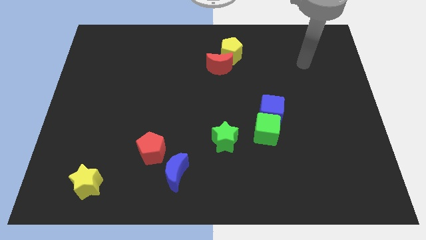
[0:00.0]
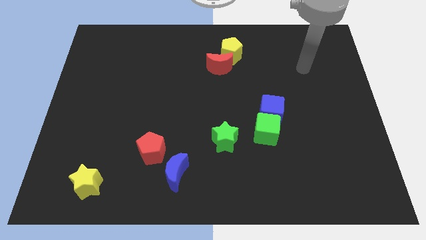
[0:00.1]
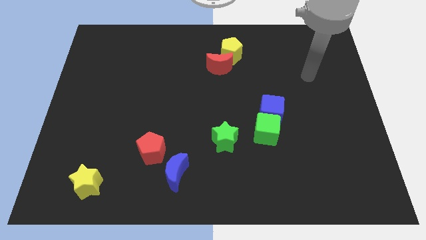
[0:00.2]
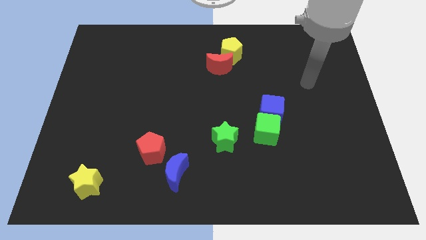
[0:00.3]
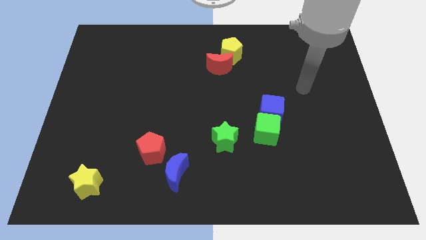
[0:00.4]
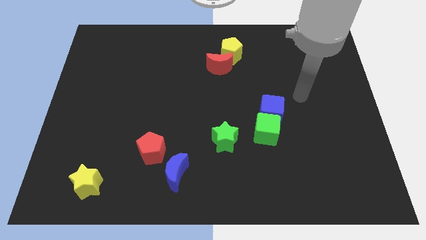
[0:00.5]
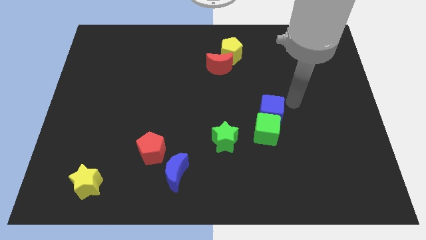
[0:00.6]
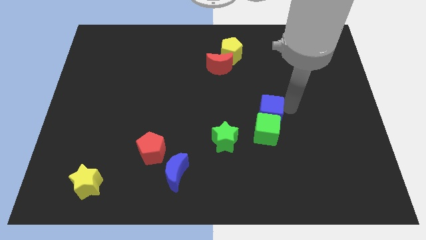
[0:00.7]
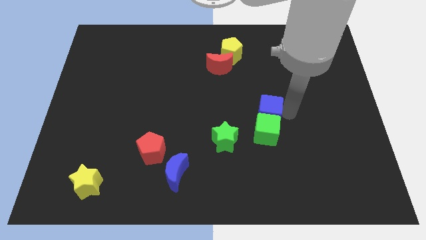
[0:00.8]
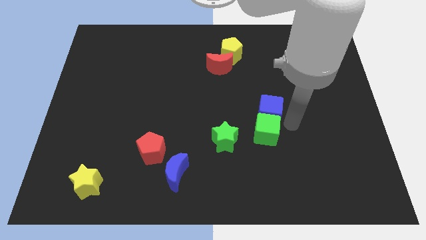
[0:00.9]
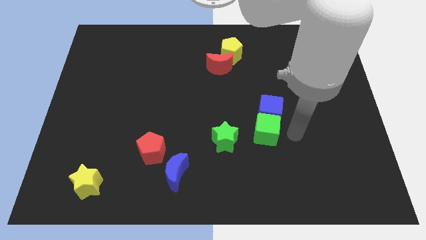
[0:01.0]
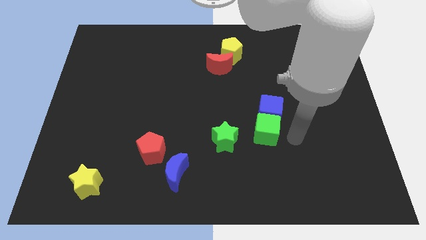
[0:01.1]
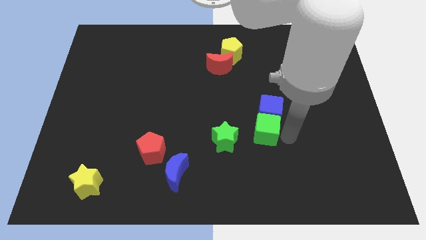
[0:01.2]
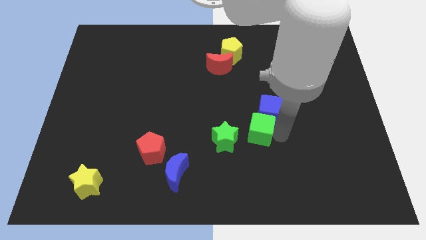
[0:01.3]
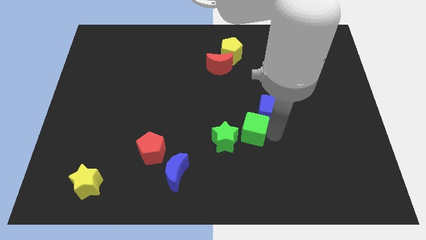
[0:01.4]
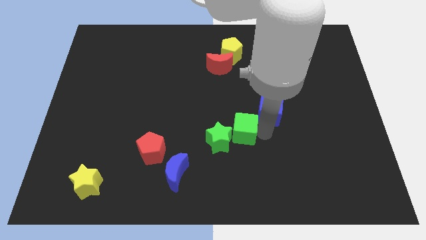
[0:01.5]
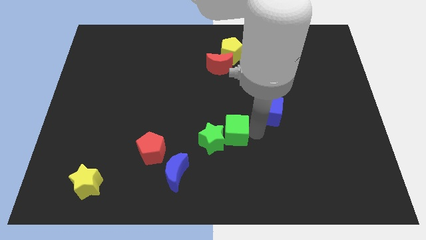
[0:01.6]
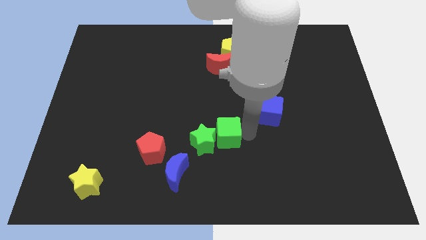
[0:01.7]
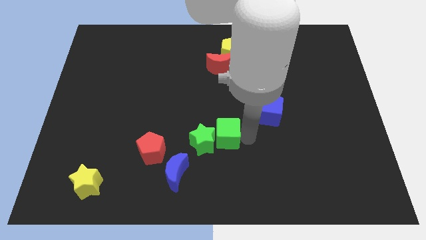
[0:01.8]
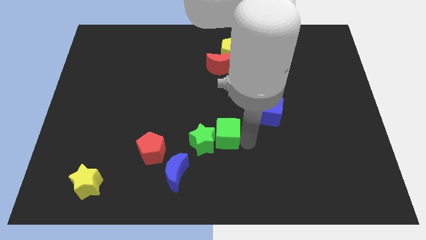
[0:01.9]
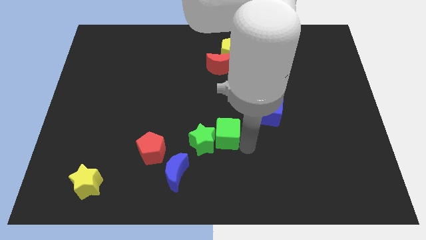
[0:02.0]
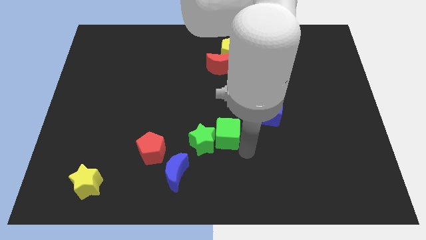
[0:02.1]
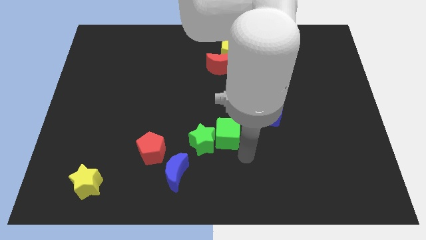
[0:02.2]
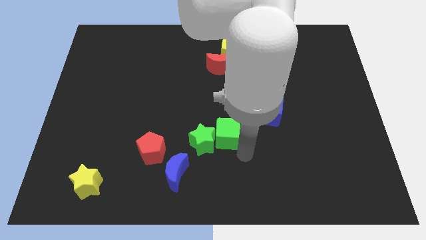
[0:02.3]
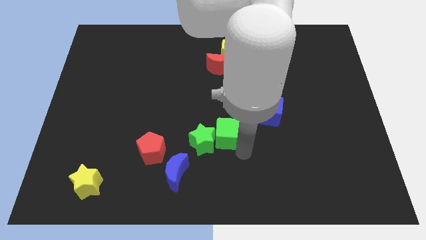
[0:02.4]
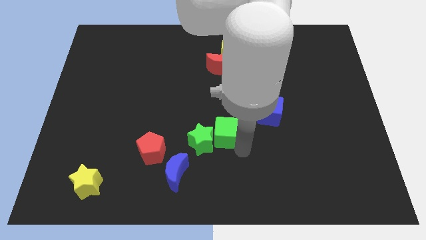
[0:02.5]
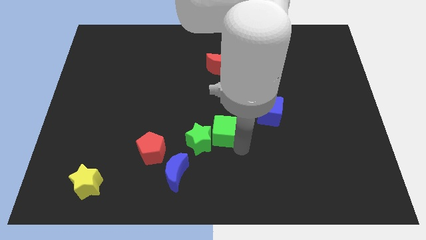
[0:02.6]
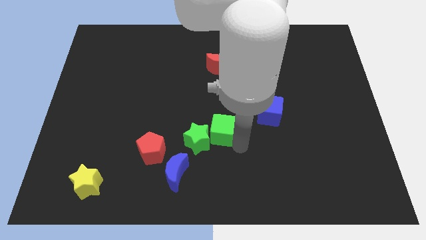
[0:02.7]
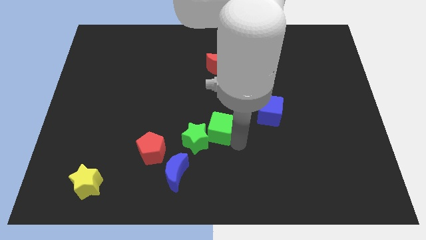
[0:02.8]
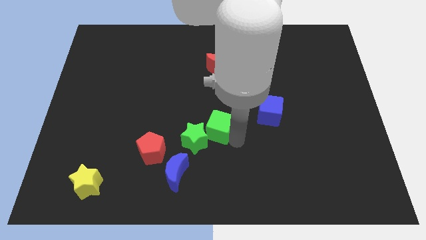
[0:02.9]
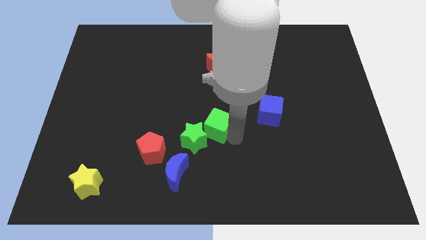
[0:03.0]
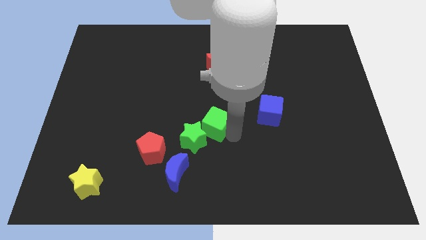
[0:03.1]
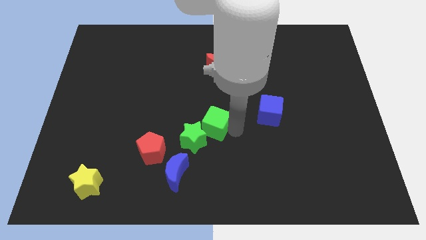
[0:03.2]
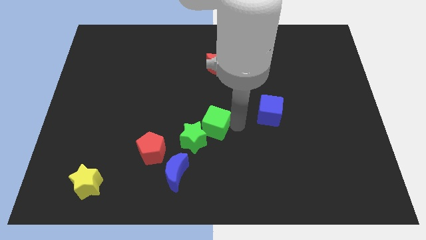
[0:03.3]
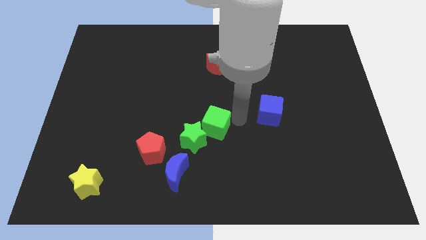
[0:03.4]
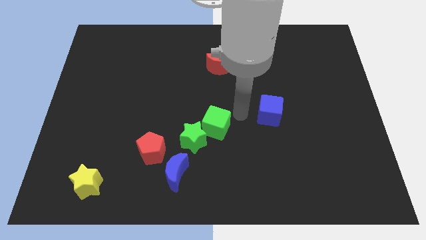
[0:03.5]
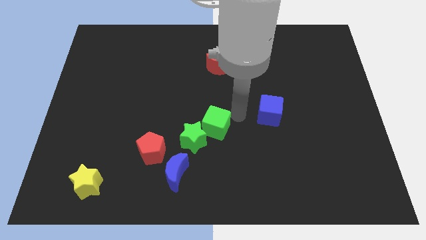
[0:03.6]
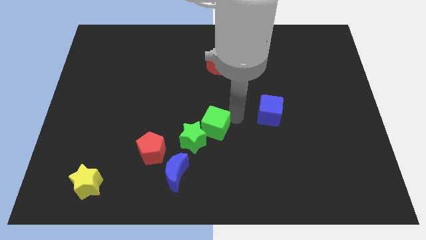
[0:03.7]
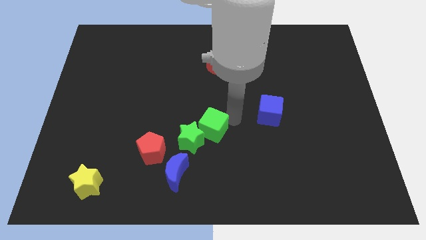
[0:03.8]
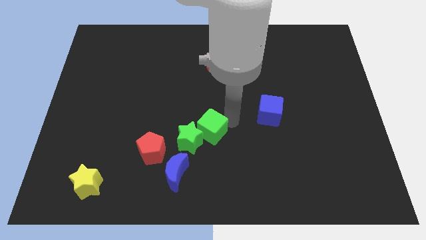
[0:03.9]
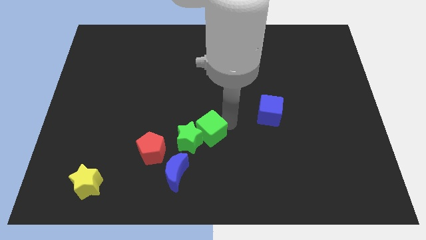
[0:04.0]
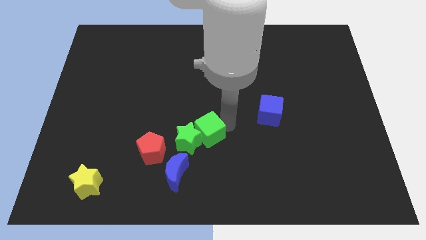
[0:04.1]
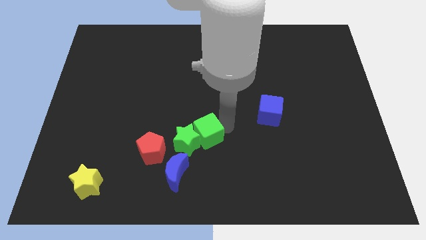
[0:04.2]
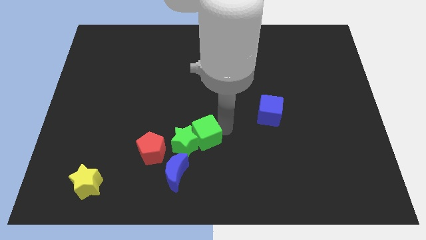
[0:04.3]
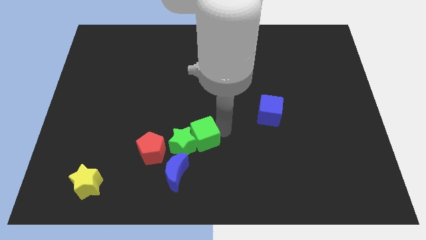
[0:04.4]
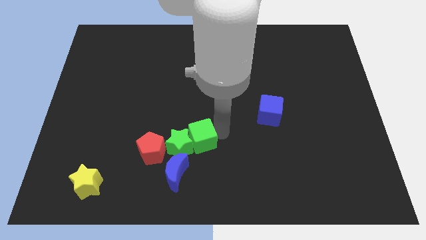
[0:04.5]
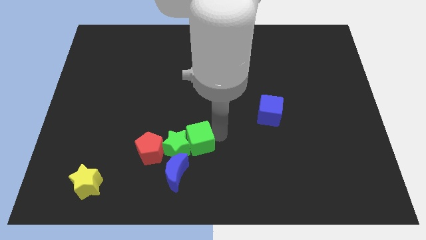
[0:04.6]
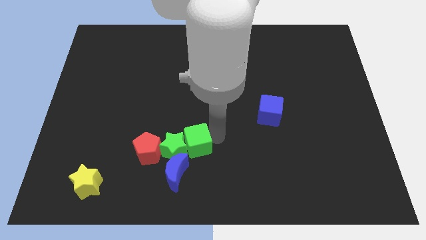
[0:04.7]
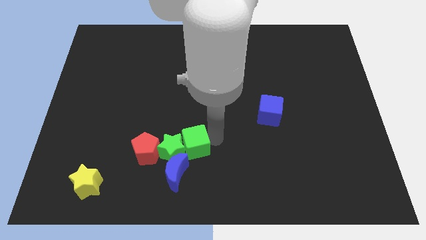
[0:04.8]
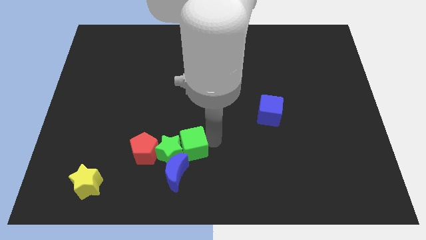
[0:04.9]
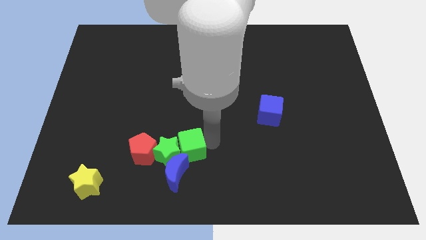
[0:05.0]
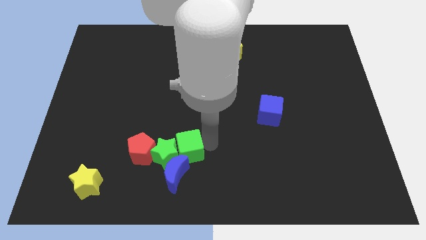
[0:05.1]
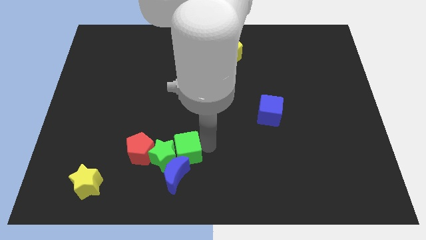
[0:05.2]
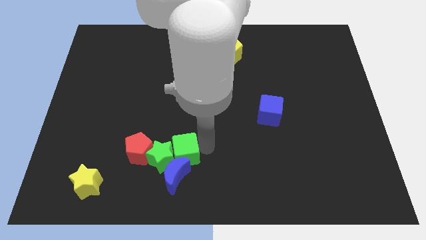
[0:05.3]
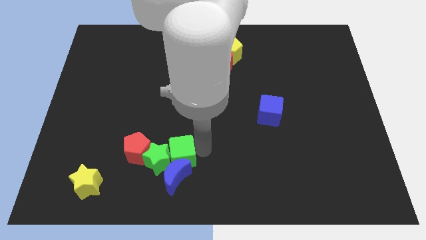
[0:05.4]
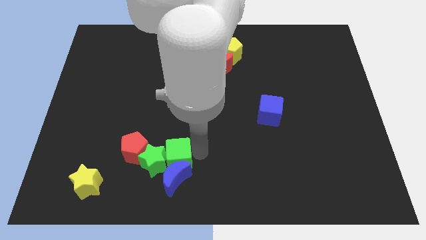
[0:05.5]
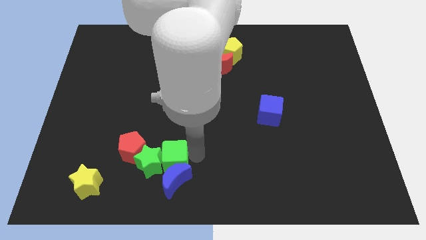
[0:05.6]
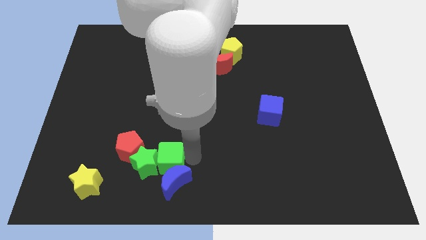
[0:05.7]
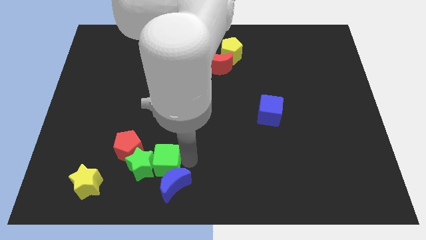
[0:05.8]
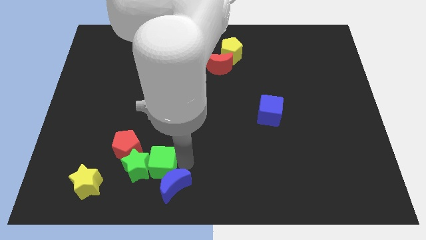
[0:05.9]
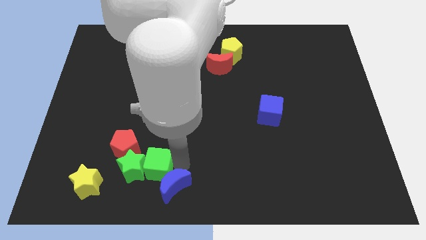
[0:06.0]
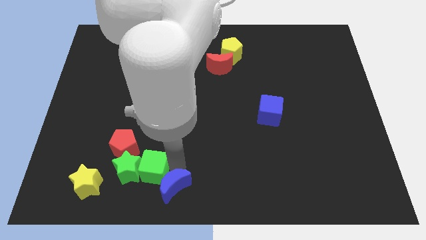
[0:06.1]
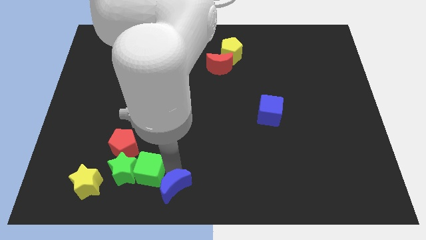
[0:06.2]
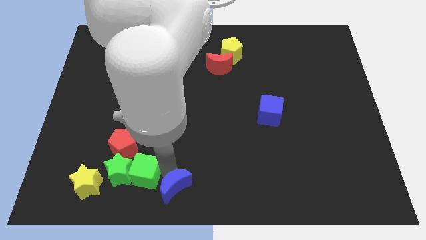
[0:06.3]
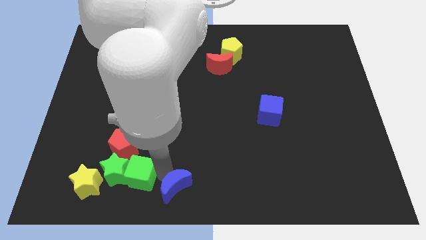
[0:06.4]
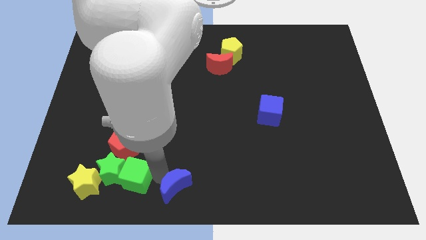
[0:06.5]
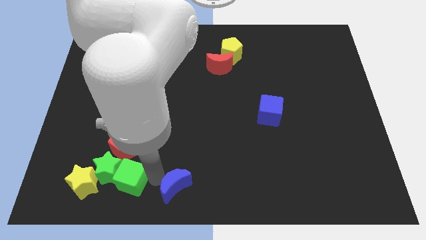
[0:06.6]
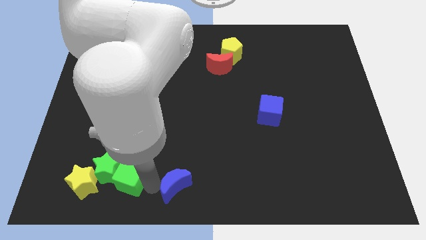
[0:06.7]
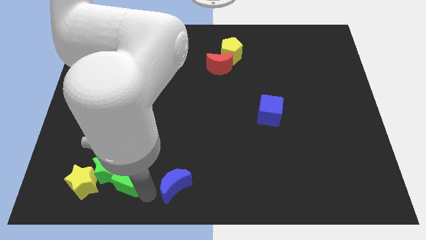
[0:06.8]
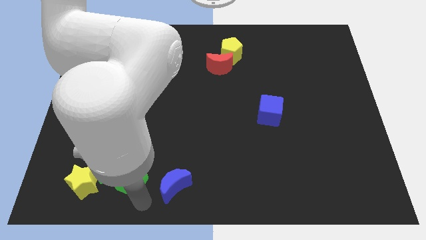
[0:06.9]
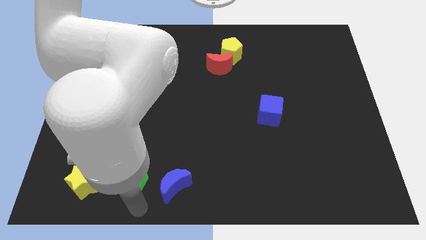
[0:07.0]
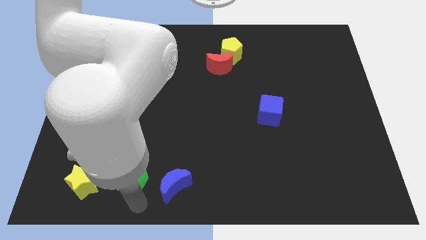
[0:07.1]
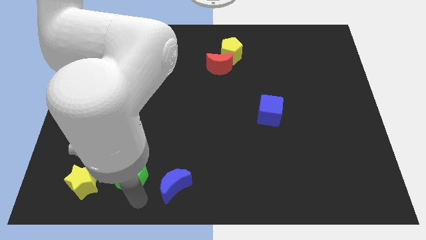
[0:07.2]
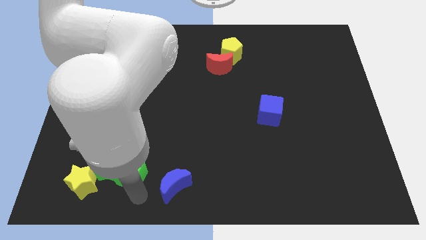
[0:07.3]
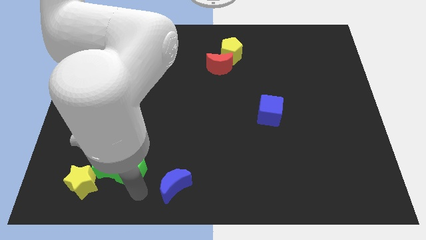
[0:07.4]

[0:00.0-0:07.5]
push the green cube next to the red pentagon
